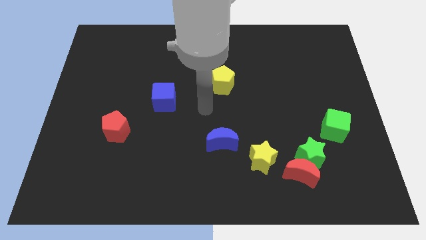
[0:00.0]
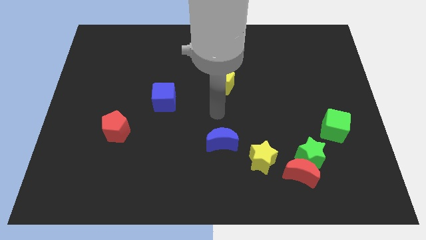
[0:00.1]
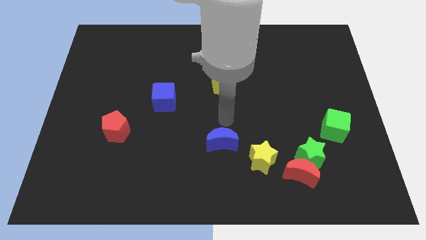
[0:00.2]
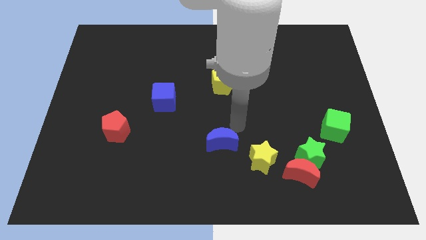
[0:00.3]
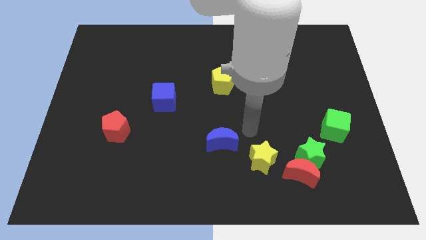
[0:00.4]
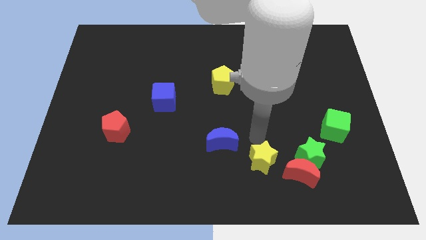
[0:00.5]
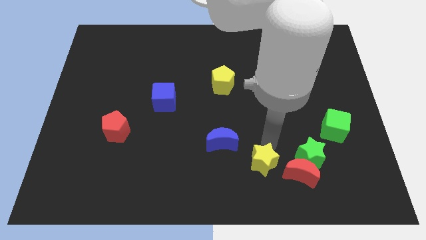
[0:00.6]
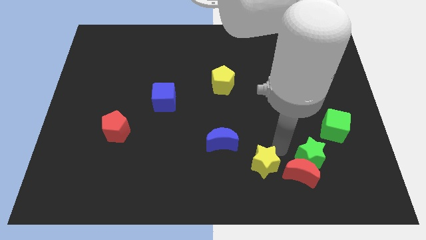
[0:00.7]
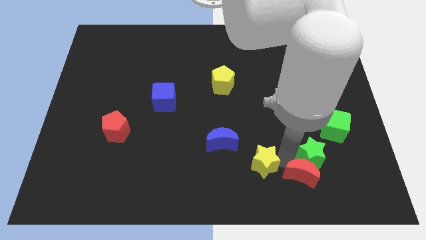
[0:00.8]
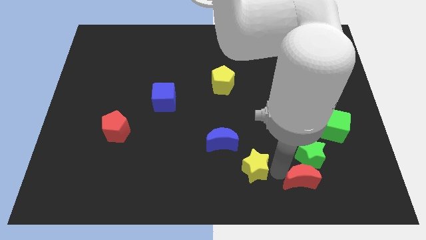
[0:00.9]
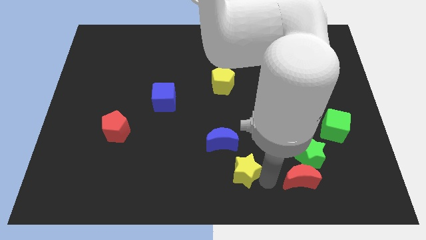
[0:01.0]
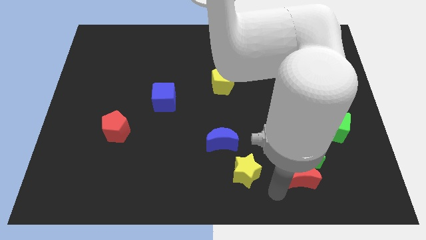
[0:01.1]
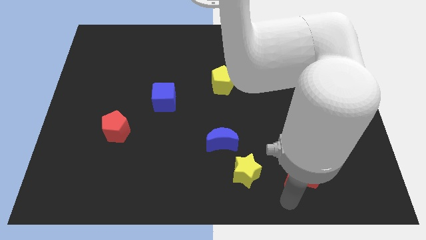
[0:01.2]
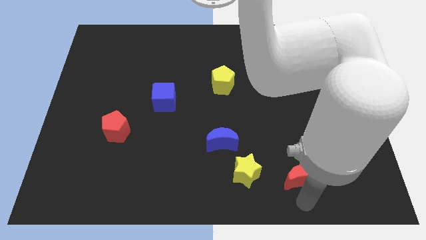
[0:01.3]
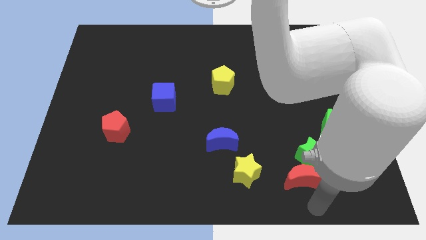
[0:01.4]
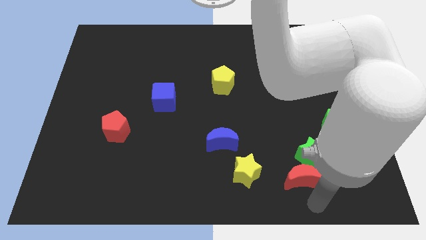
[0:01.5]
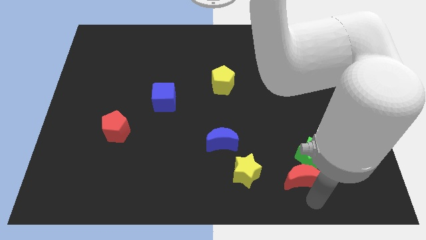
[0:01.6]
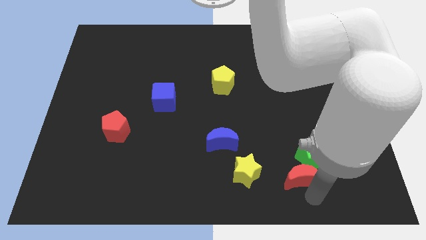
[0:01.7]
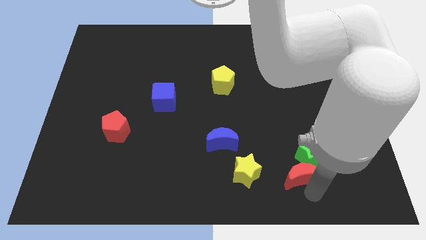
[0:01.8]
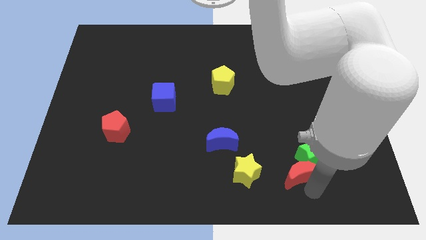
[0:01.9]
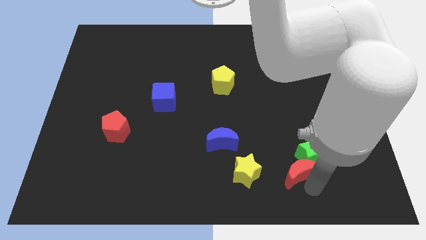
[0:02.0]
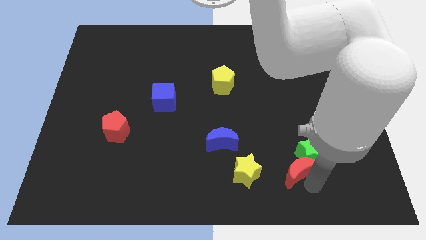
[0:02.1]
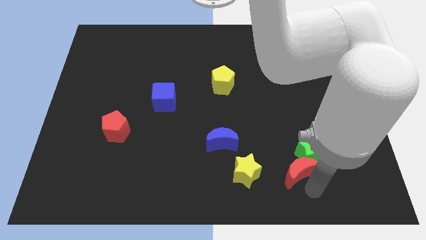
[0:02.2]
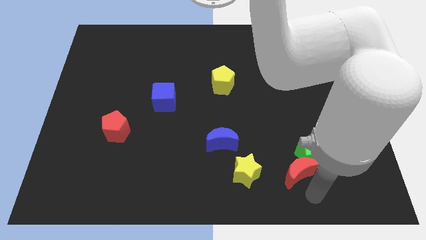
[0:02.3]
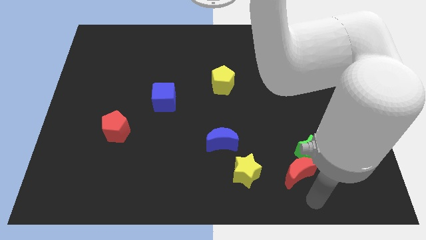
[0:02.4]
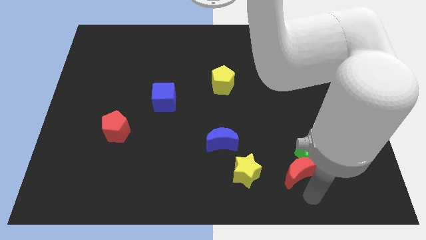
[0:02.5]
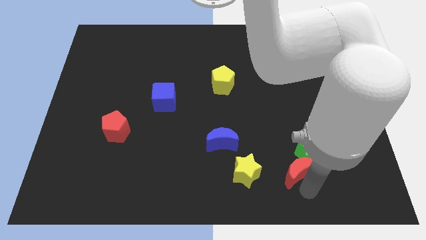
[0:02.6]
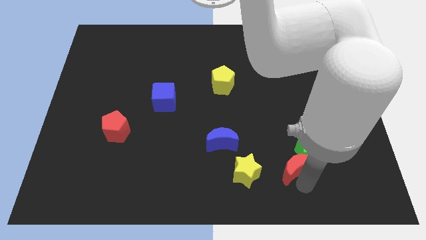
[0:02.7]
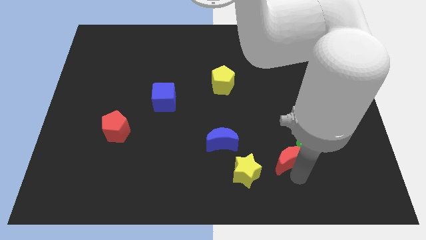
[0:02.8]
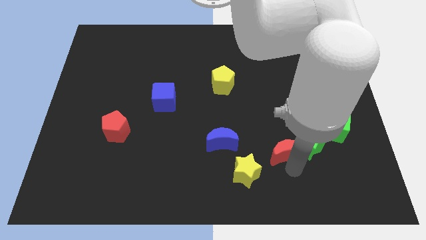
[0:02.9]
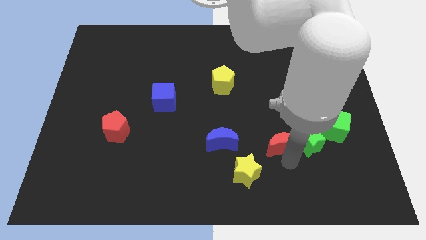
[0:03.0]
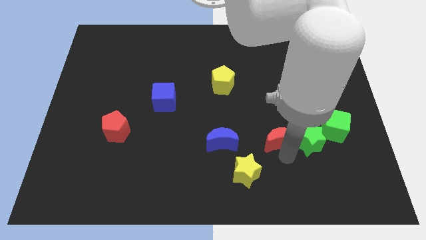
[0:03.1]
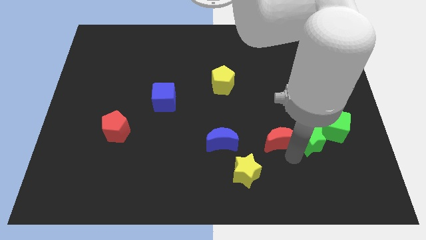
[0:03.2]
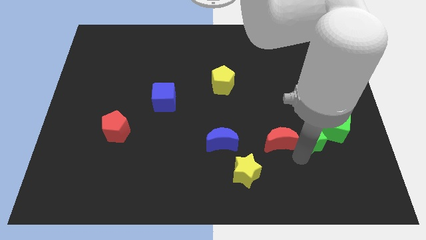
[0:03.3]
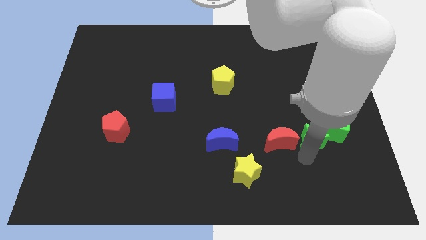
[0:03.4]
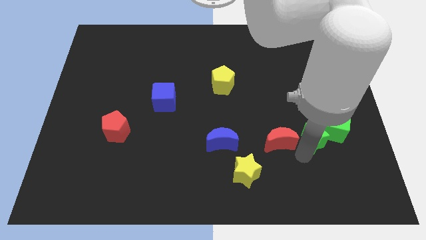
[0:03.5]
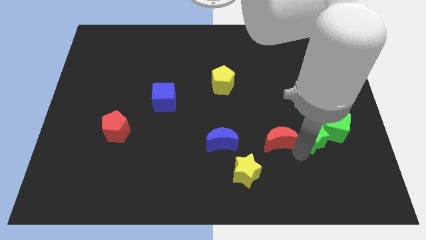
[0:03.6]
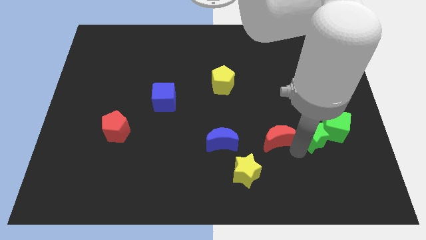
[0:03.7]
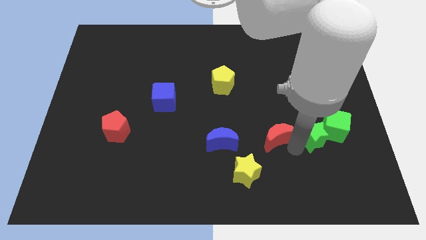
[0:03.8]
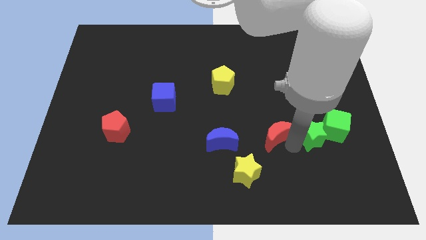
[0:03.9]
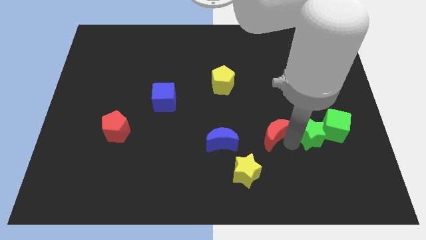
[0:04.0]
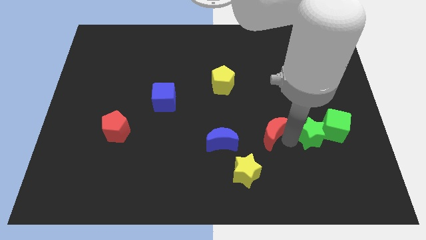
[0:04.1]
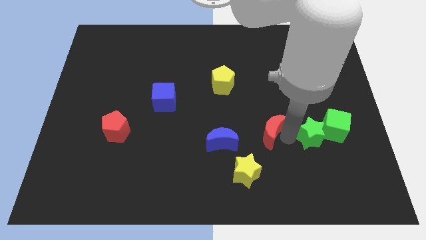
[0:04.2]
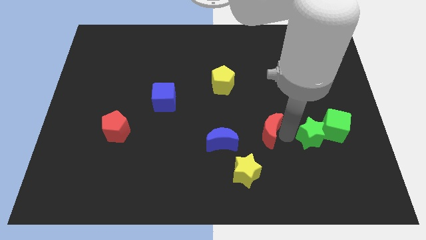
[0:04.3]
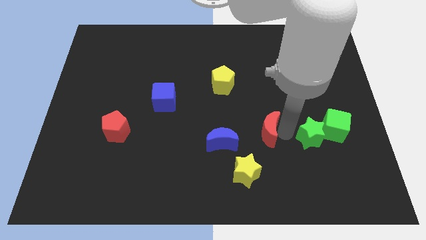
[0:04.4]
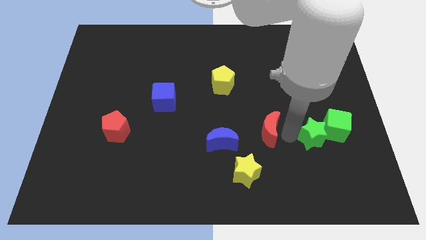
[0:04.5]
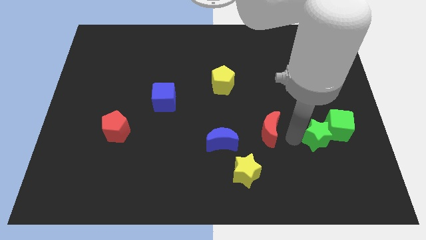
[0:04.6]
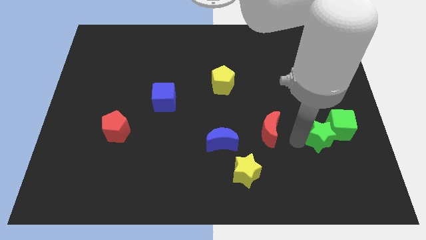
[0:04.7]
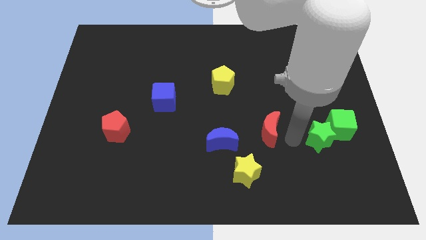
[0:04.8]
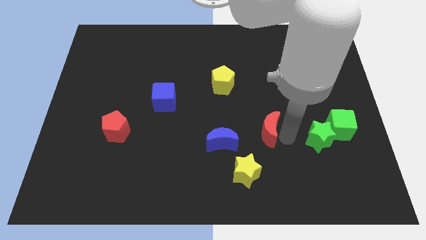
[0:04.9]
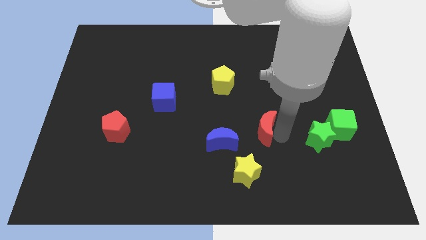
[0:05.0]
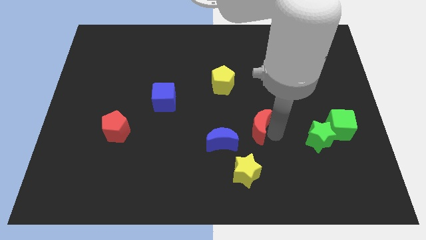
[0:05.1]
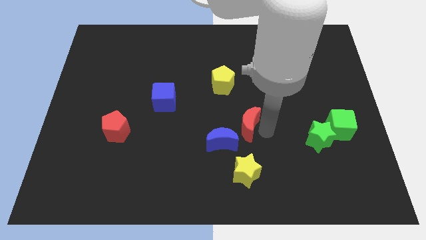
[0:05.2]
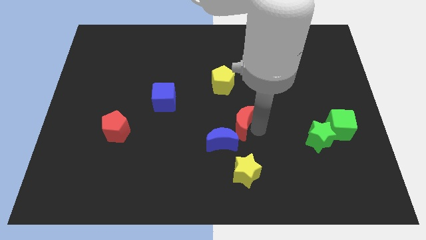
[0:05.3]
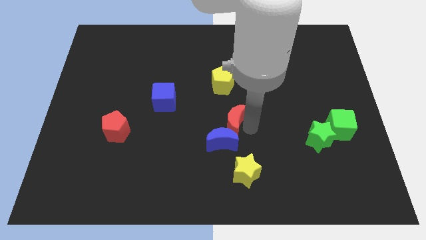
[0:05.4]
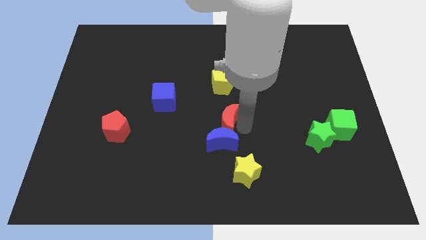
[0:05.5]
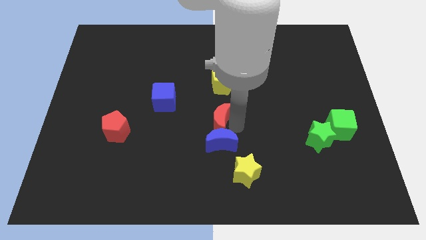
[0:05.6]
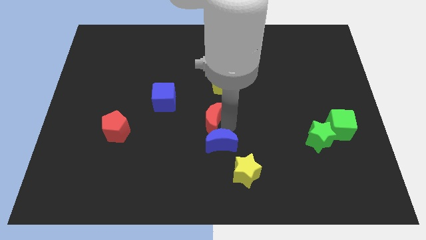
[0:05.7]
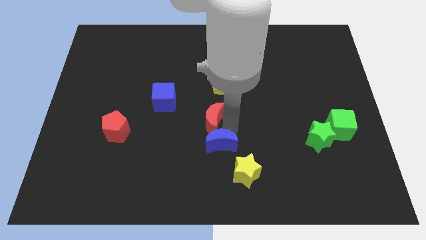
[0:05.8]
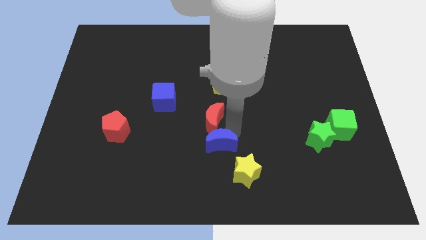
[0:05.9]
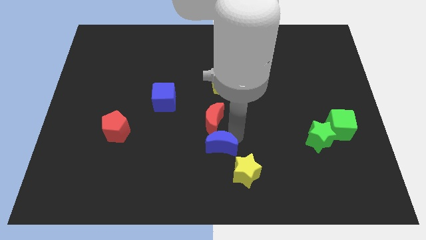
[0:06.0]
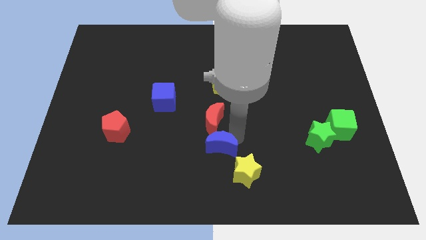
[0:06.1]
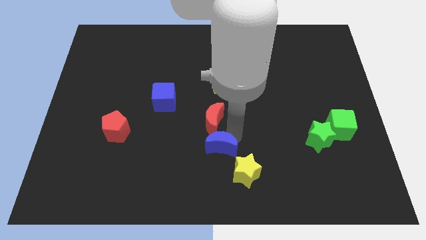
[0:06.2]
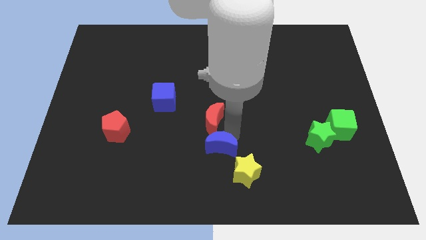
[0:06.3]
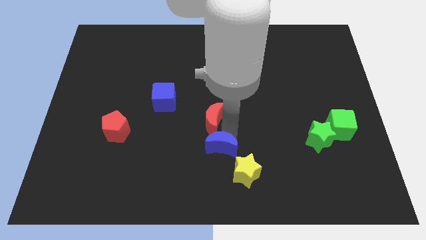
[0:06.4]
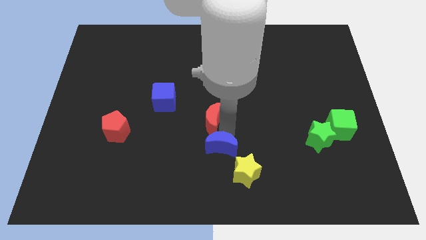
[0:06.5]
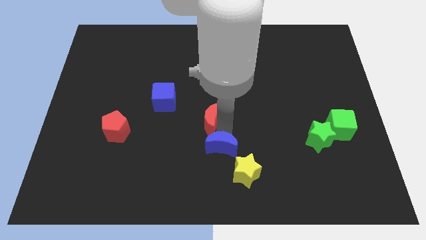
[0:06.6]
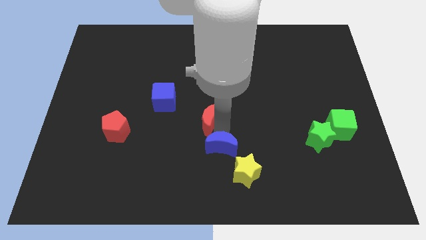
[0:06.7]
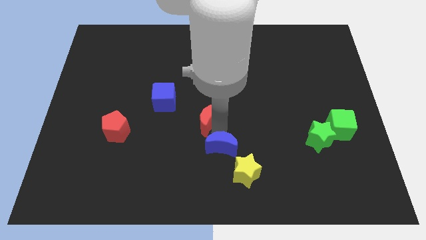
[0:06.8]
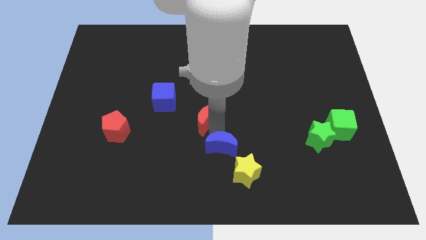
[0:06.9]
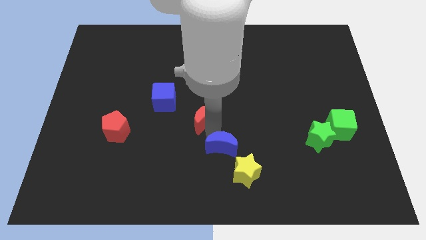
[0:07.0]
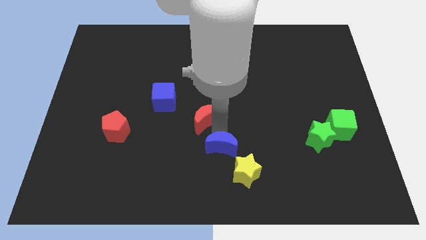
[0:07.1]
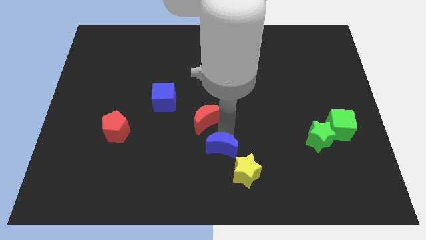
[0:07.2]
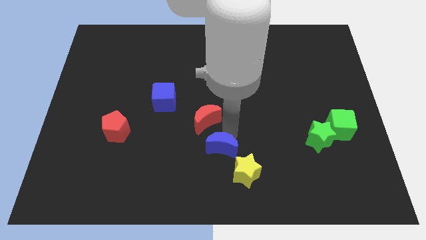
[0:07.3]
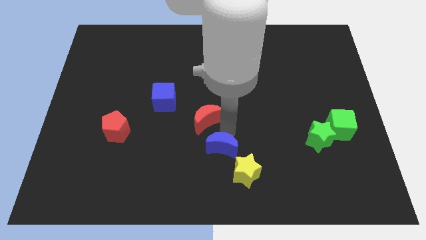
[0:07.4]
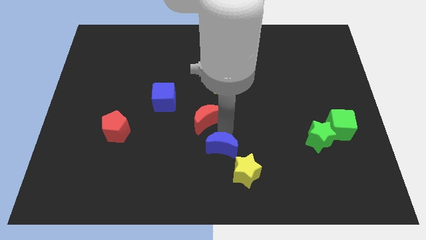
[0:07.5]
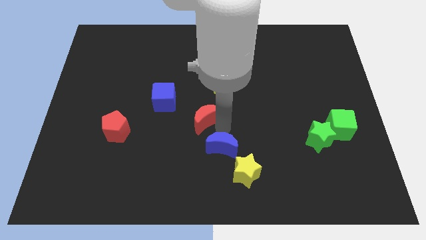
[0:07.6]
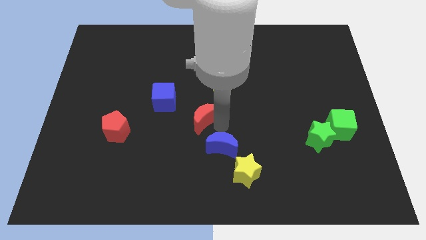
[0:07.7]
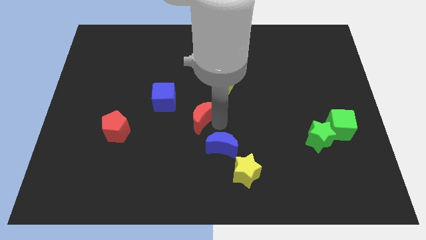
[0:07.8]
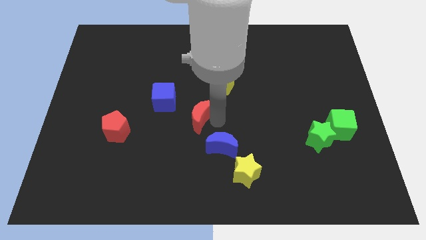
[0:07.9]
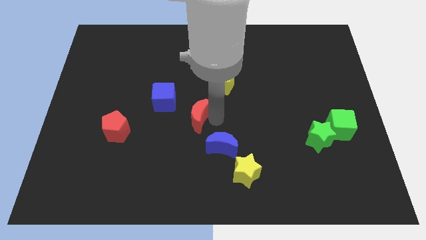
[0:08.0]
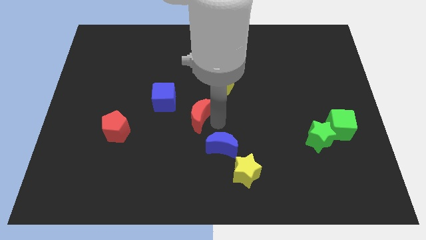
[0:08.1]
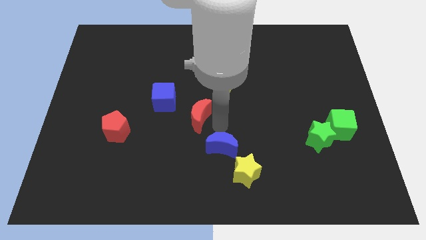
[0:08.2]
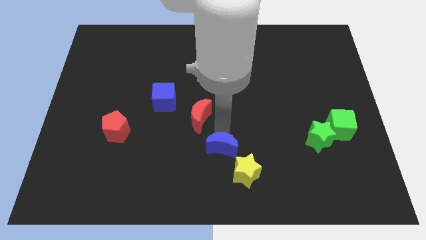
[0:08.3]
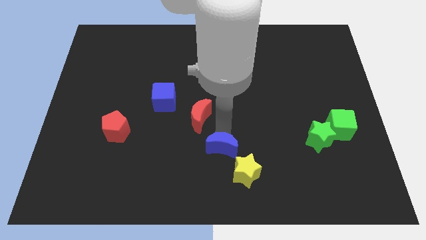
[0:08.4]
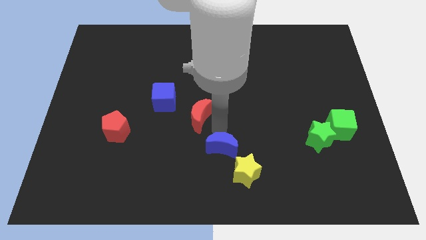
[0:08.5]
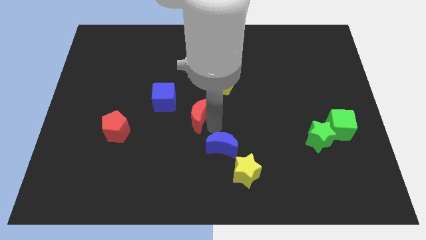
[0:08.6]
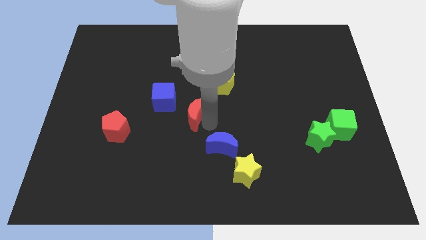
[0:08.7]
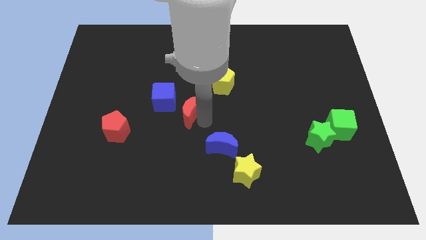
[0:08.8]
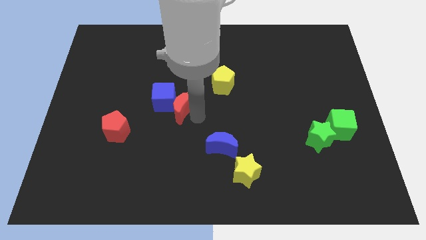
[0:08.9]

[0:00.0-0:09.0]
put the red moon close to the blue cube
